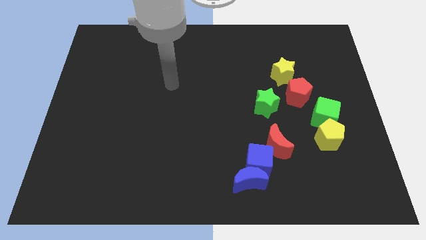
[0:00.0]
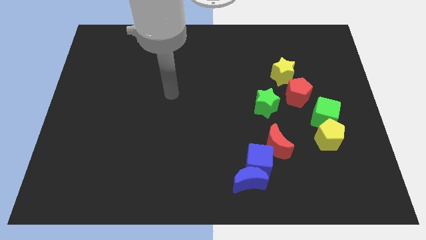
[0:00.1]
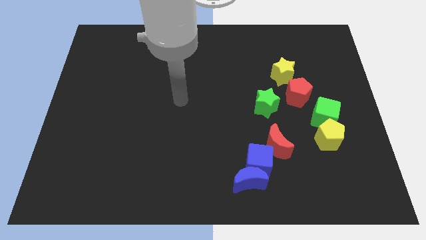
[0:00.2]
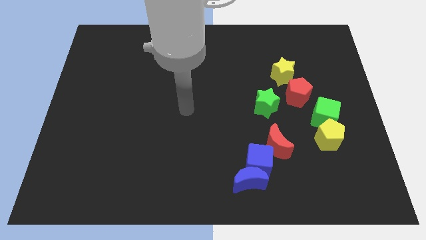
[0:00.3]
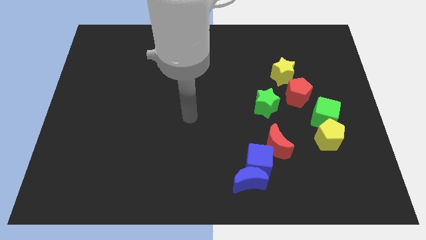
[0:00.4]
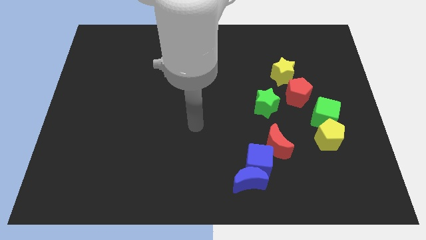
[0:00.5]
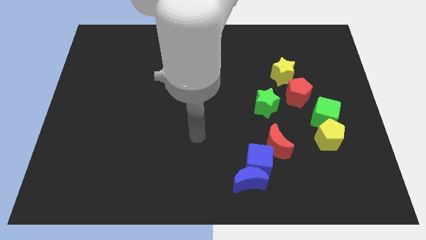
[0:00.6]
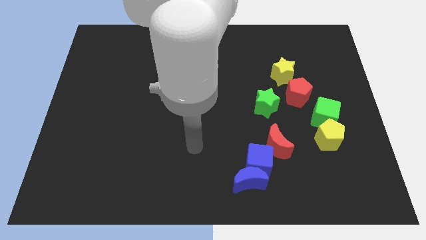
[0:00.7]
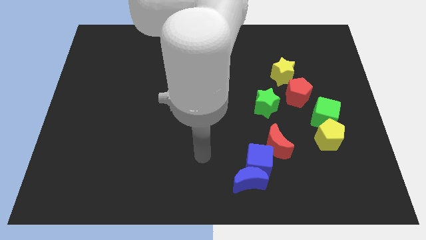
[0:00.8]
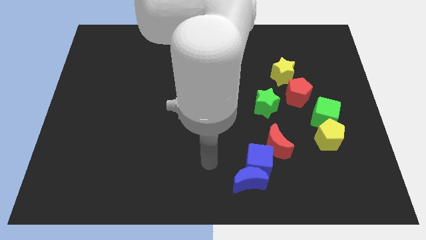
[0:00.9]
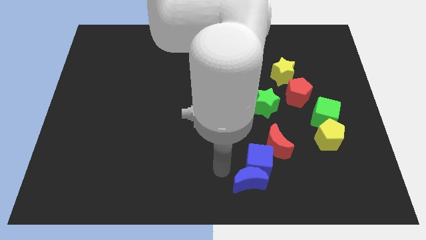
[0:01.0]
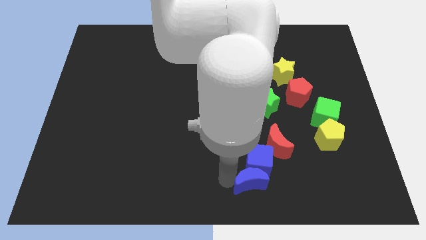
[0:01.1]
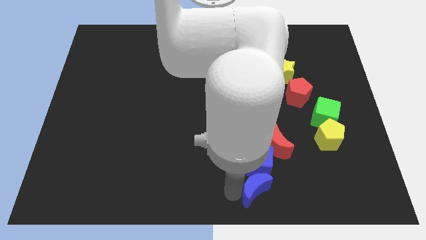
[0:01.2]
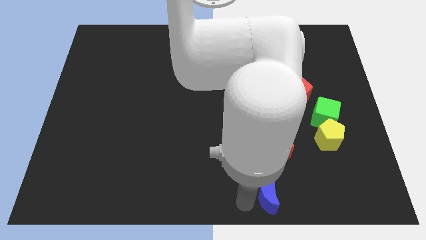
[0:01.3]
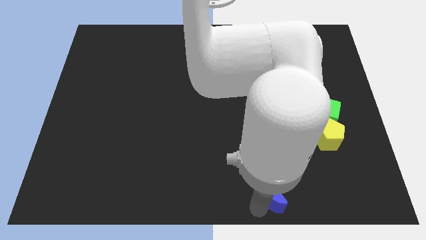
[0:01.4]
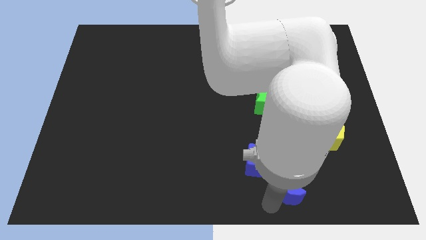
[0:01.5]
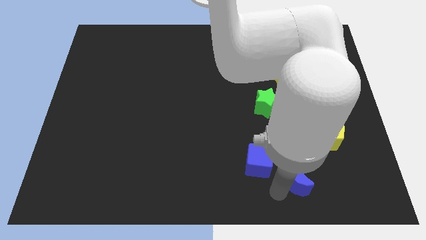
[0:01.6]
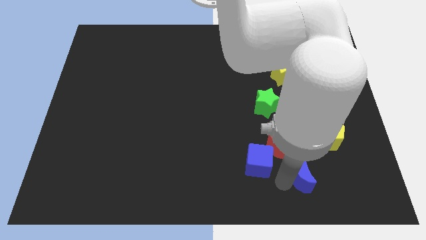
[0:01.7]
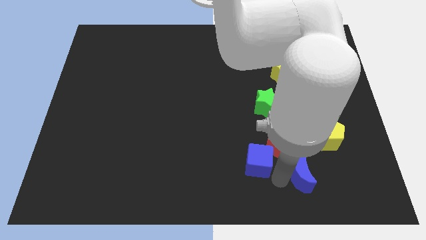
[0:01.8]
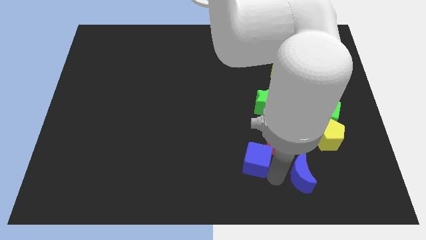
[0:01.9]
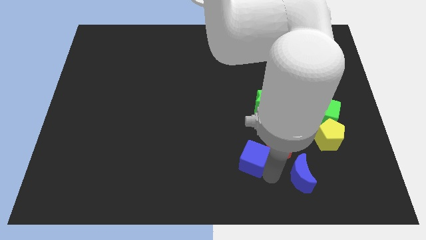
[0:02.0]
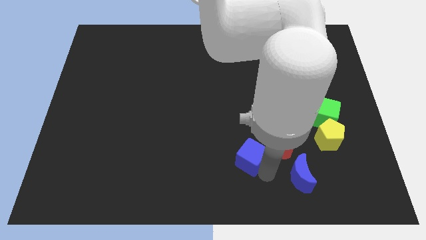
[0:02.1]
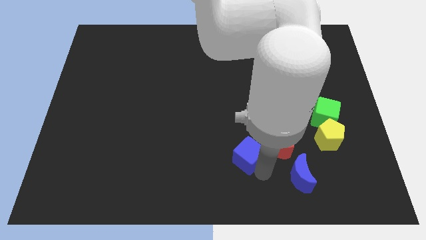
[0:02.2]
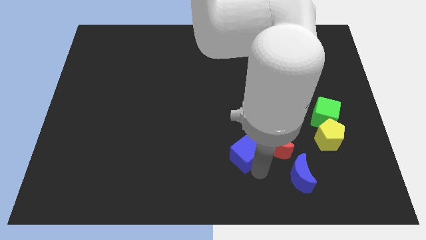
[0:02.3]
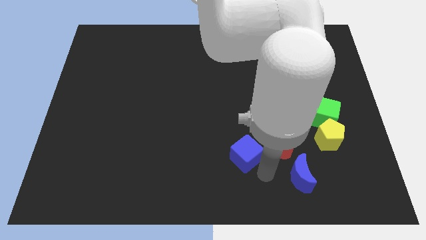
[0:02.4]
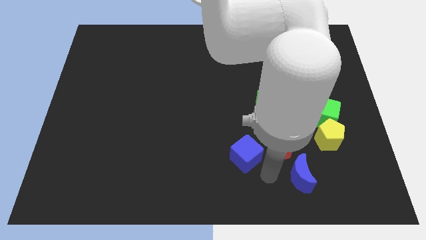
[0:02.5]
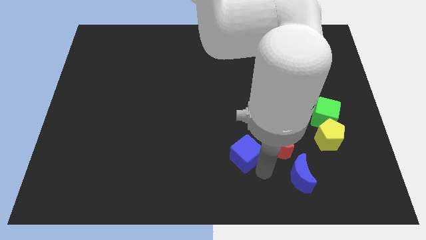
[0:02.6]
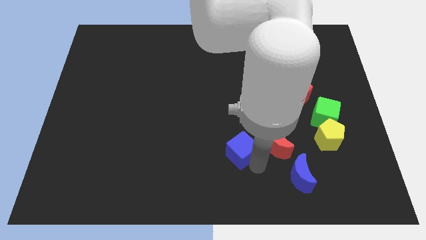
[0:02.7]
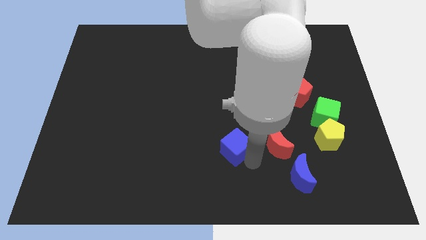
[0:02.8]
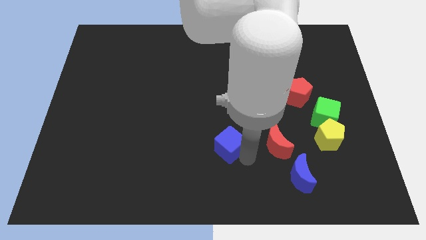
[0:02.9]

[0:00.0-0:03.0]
slightly move the blue cube diagonally upwards and left

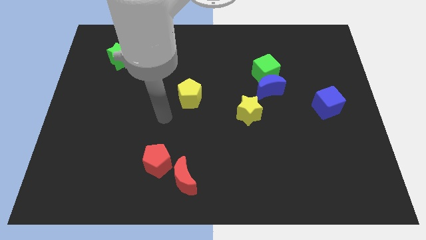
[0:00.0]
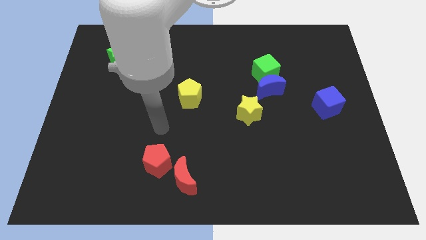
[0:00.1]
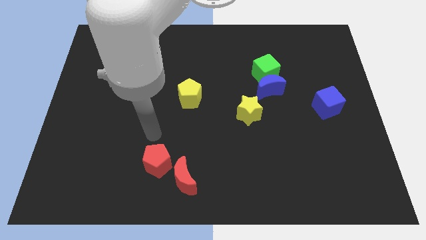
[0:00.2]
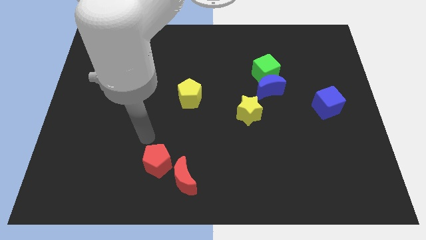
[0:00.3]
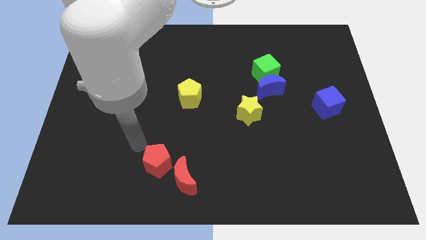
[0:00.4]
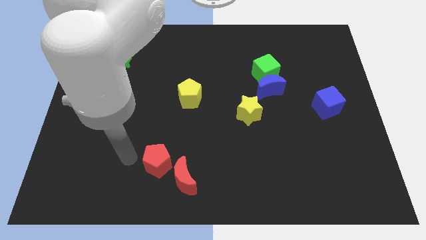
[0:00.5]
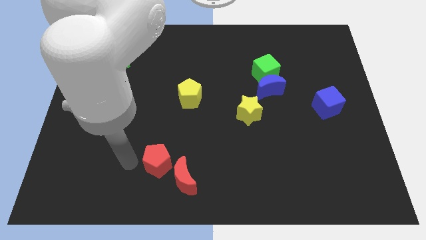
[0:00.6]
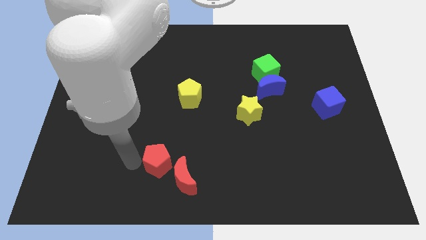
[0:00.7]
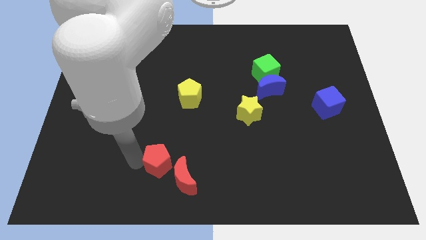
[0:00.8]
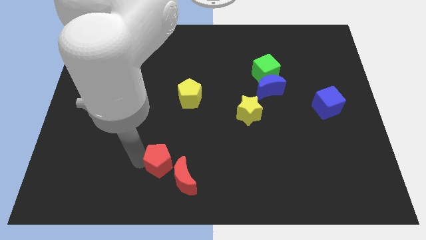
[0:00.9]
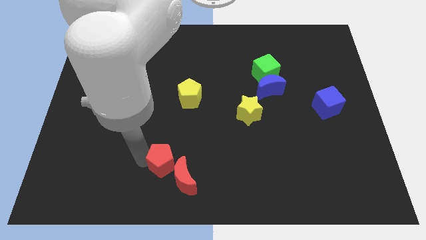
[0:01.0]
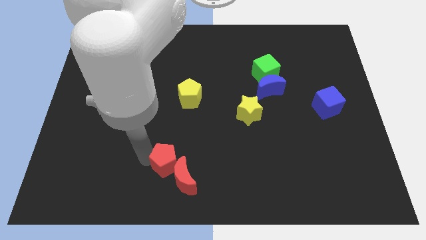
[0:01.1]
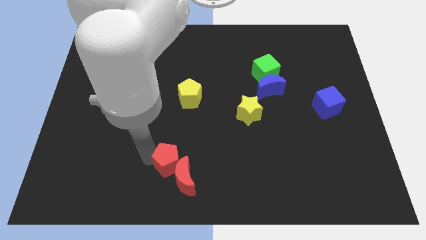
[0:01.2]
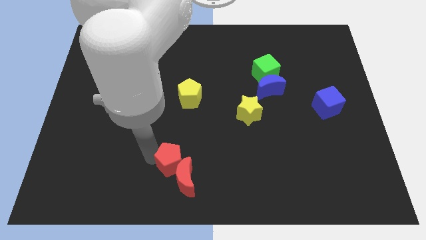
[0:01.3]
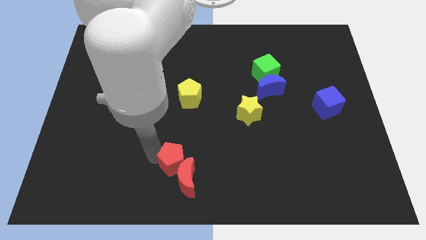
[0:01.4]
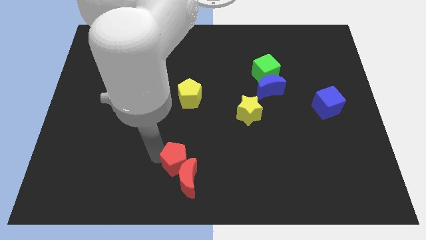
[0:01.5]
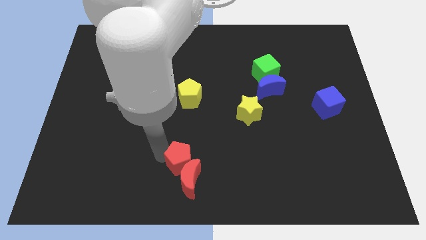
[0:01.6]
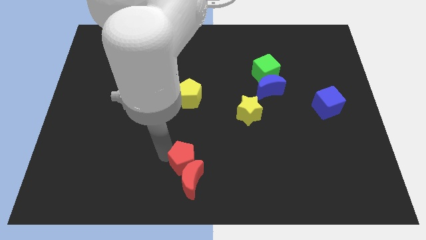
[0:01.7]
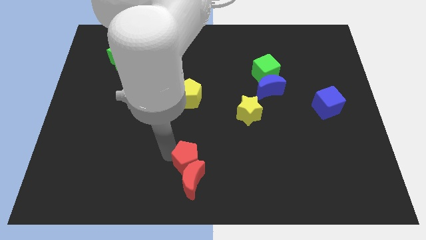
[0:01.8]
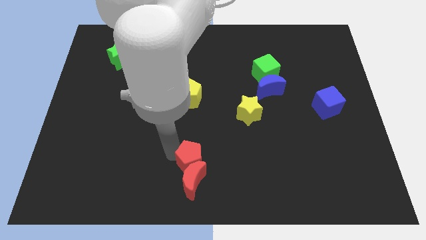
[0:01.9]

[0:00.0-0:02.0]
slightly move the red pentagon to the right

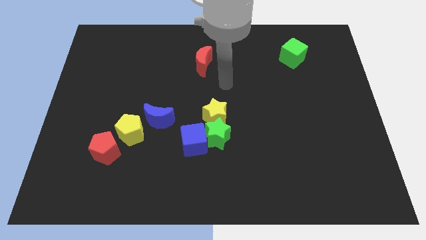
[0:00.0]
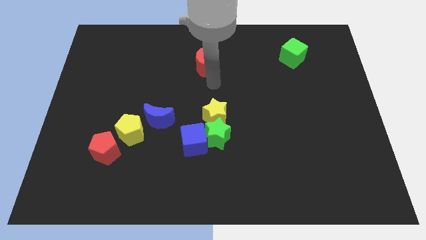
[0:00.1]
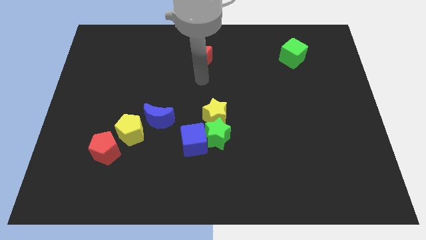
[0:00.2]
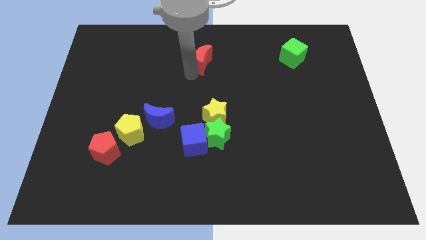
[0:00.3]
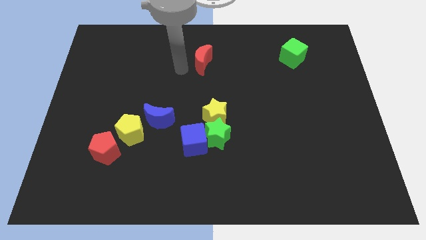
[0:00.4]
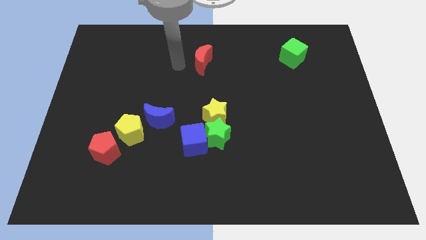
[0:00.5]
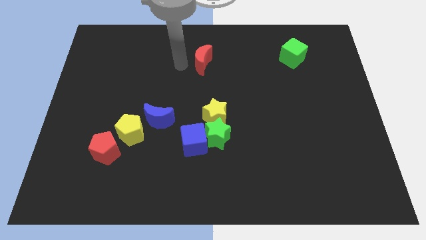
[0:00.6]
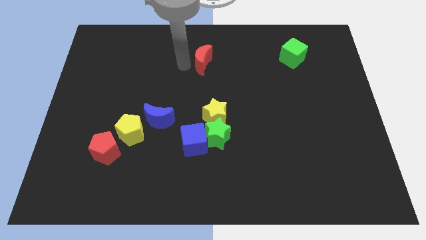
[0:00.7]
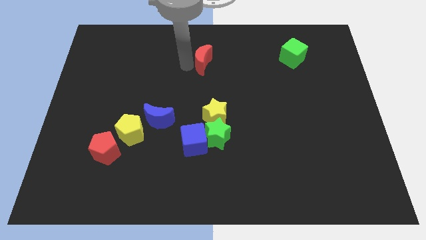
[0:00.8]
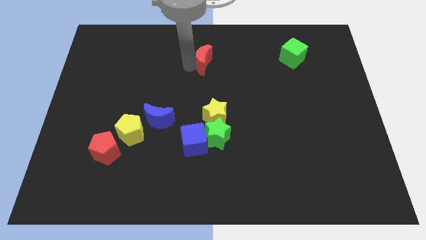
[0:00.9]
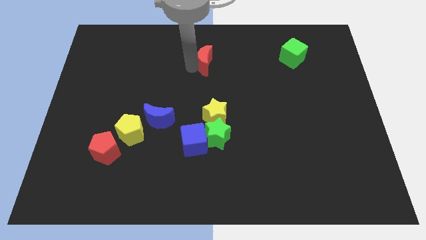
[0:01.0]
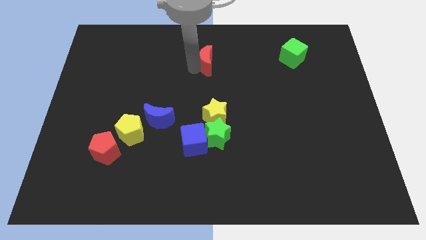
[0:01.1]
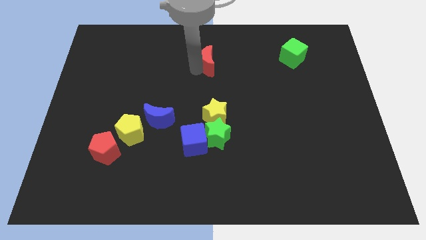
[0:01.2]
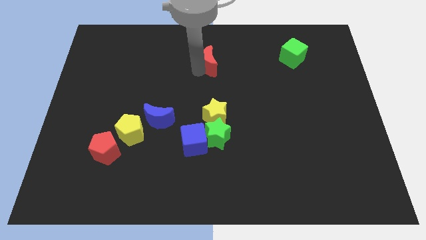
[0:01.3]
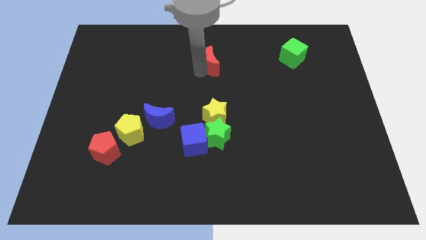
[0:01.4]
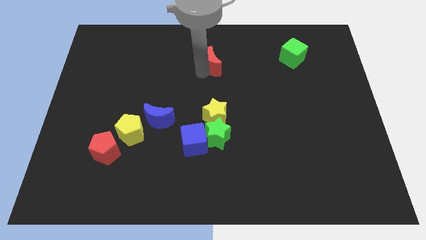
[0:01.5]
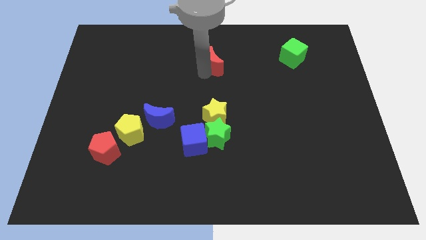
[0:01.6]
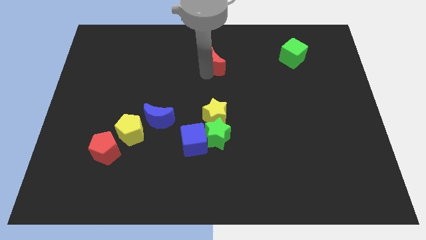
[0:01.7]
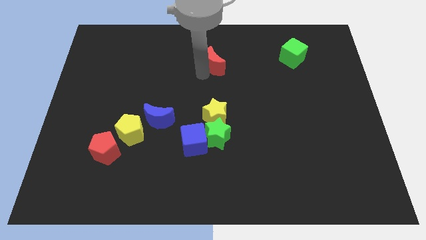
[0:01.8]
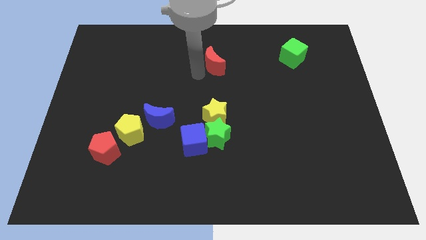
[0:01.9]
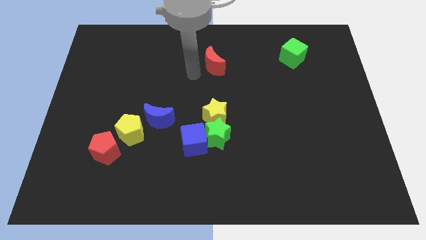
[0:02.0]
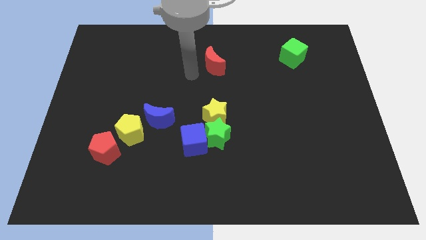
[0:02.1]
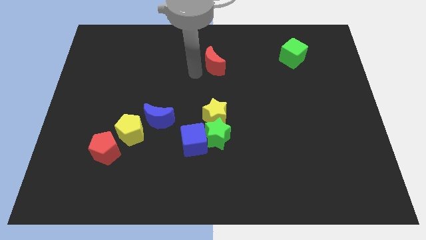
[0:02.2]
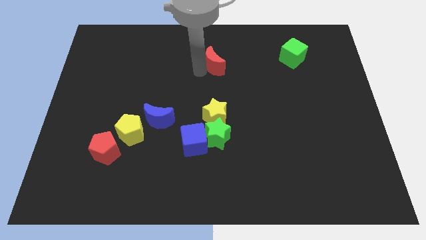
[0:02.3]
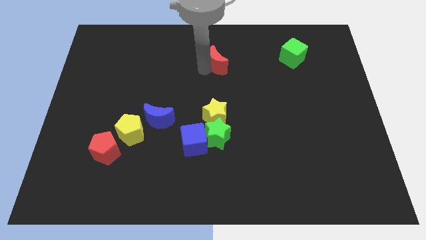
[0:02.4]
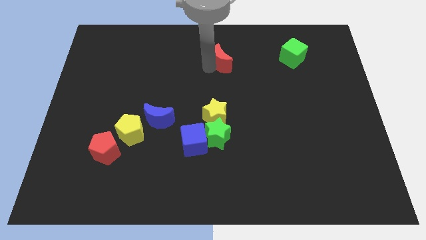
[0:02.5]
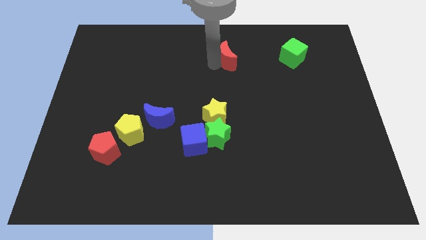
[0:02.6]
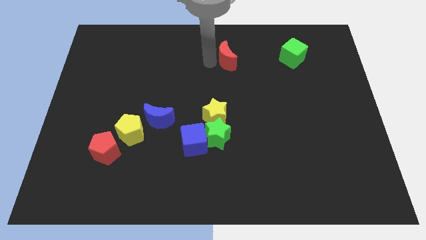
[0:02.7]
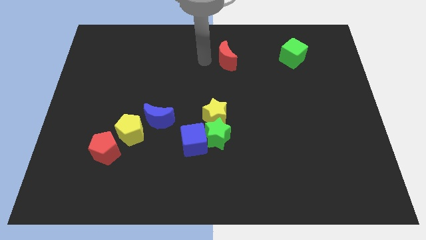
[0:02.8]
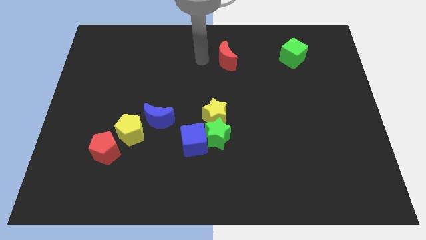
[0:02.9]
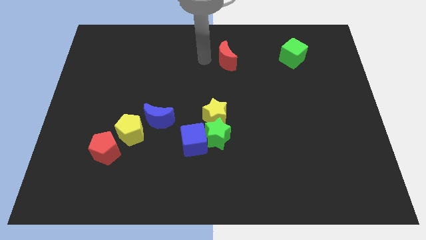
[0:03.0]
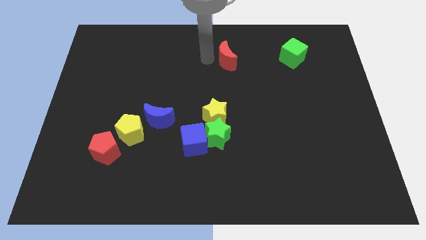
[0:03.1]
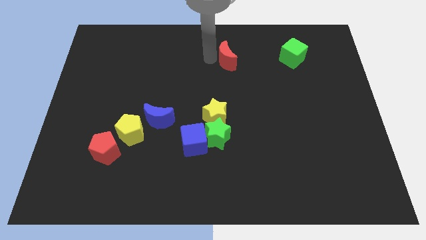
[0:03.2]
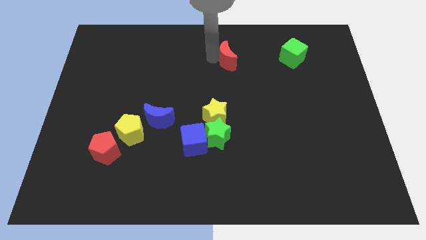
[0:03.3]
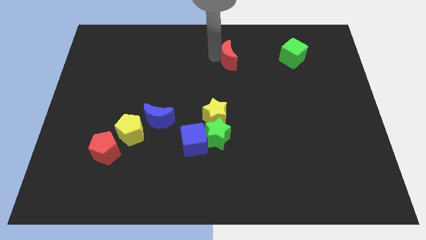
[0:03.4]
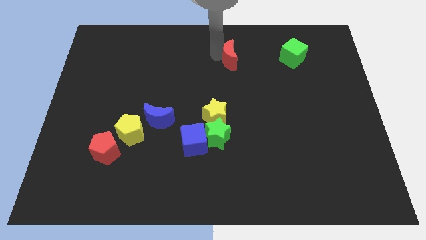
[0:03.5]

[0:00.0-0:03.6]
slightly slide the red moon to the right
